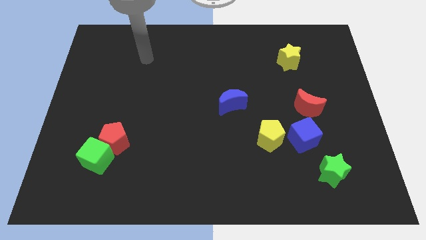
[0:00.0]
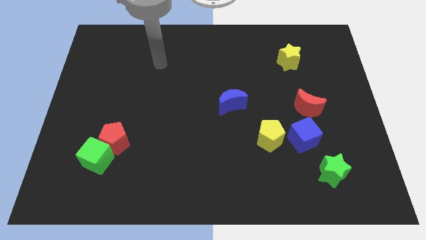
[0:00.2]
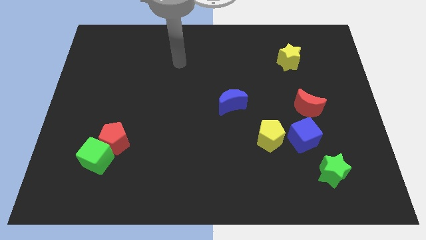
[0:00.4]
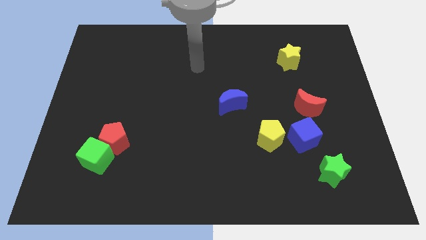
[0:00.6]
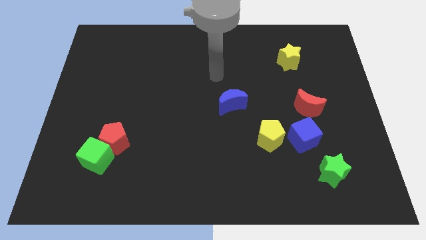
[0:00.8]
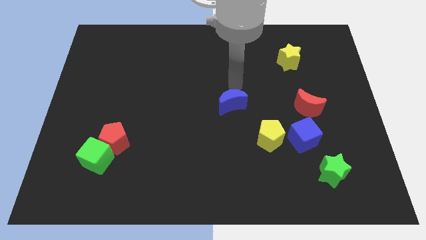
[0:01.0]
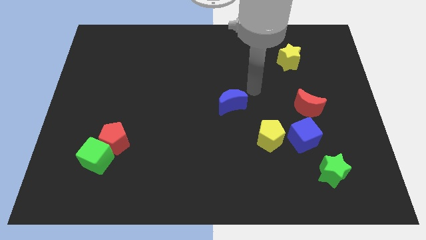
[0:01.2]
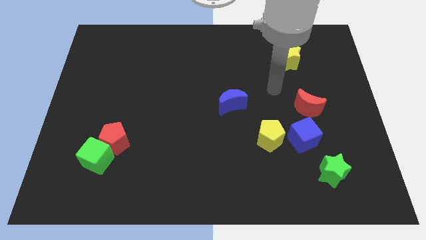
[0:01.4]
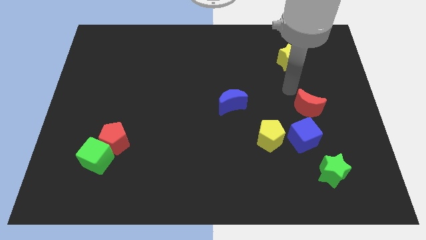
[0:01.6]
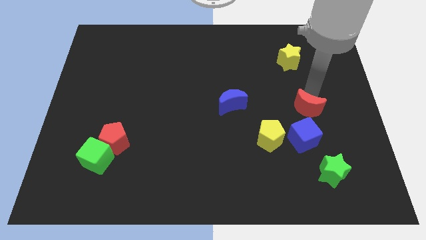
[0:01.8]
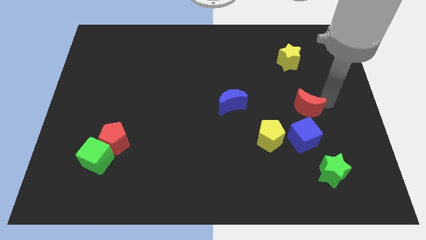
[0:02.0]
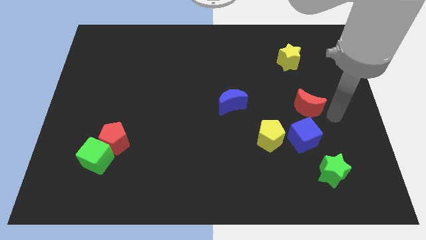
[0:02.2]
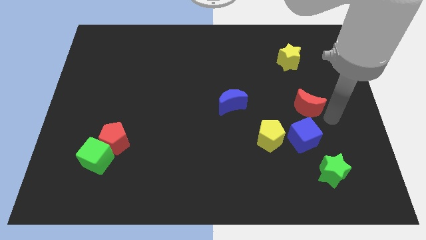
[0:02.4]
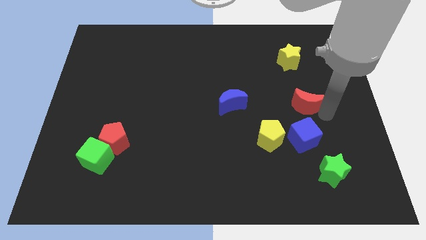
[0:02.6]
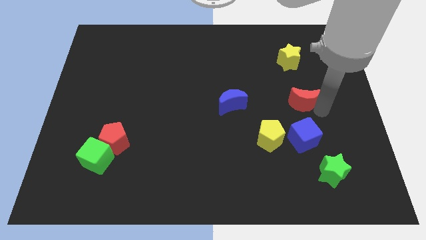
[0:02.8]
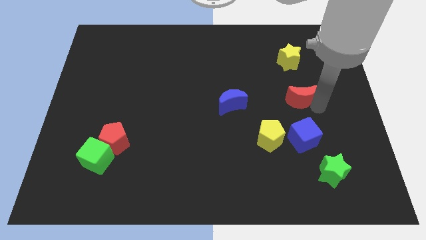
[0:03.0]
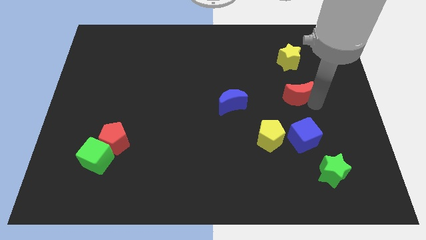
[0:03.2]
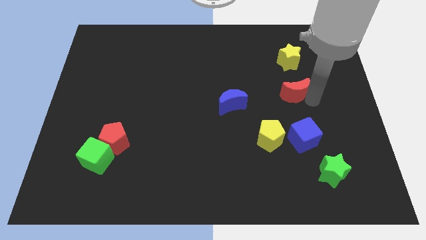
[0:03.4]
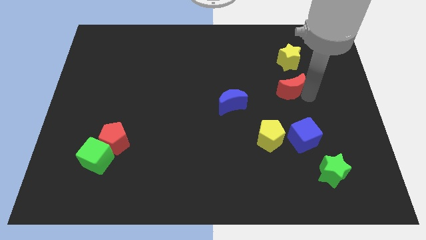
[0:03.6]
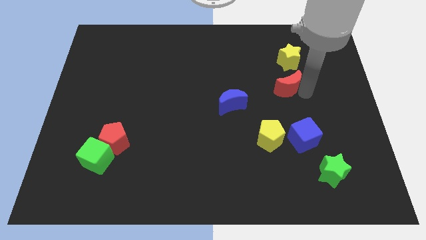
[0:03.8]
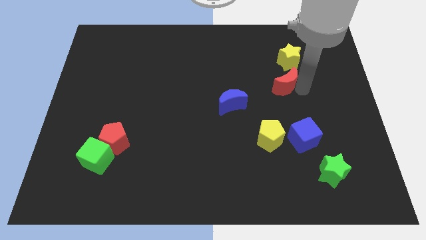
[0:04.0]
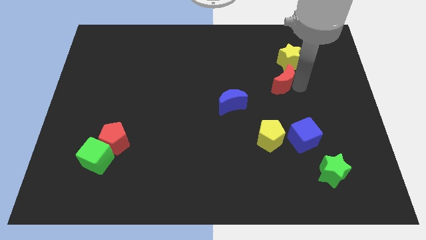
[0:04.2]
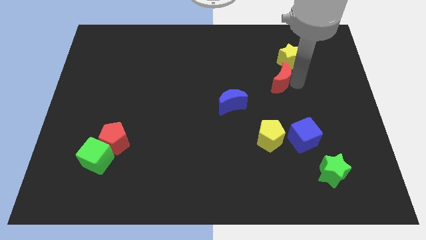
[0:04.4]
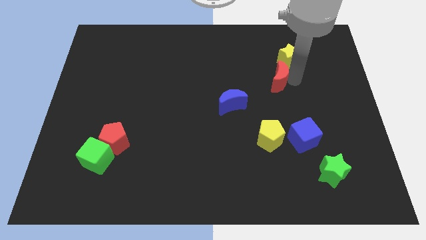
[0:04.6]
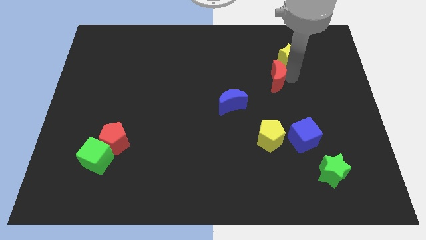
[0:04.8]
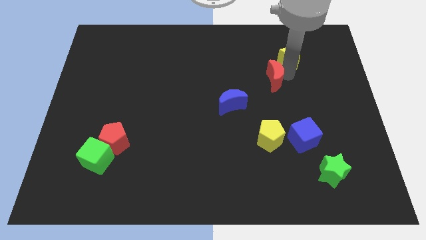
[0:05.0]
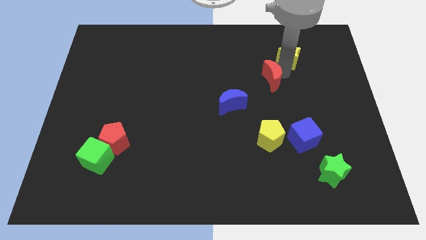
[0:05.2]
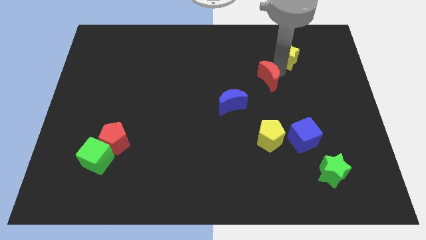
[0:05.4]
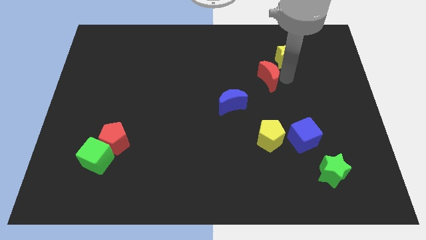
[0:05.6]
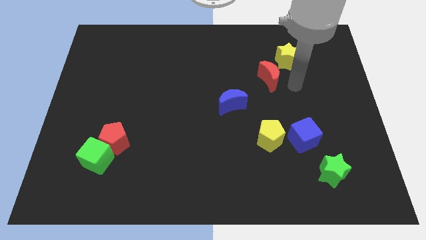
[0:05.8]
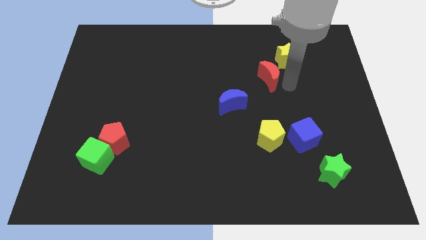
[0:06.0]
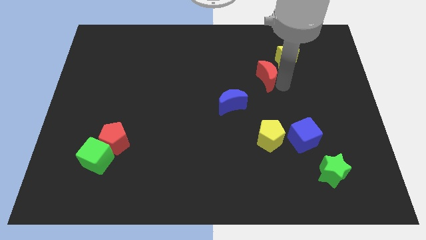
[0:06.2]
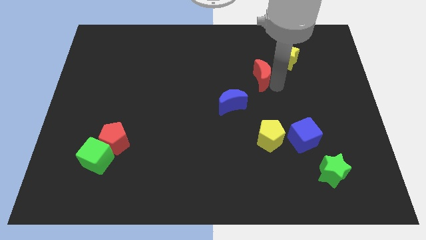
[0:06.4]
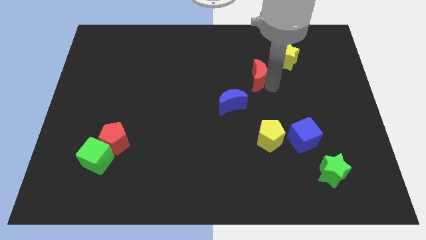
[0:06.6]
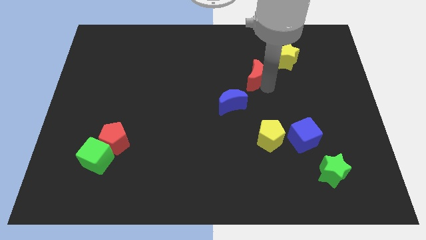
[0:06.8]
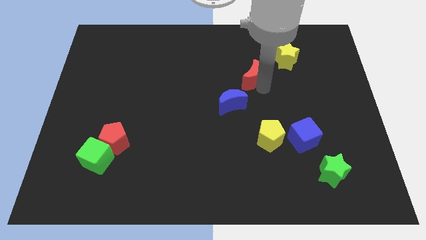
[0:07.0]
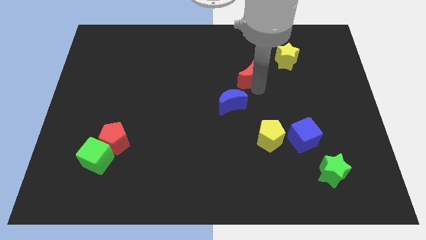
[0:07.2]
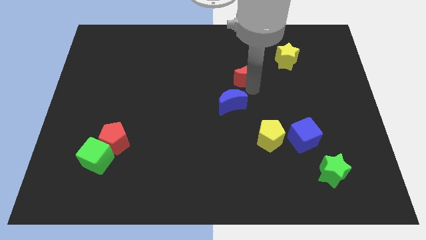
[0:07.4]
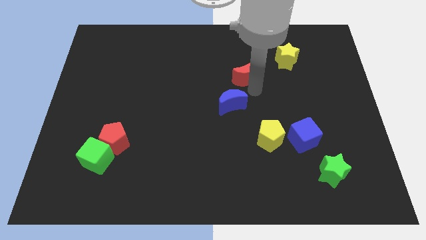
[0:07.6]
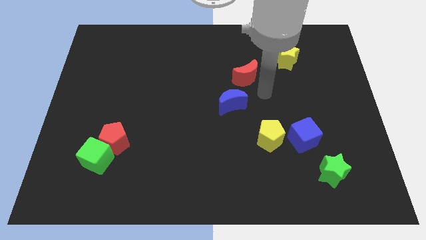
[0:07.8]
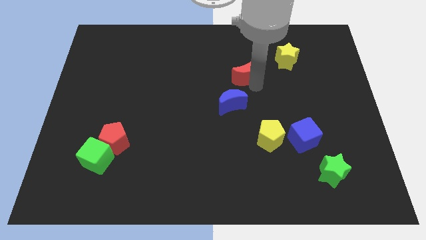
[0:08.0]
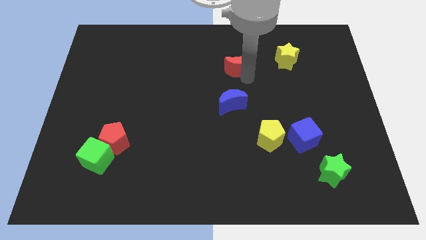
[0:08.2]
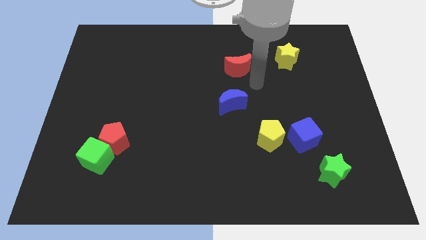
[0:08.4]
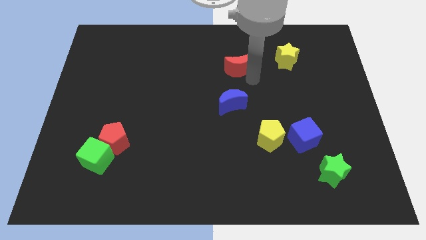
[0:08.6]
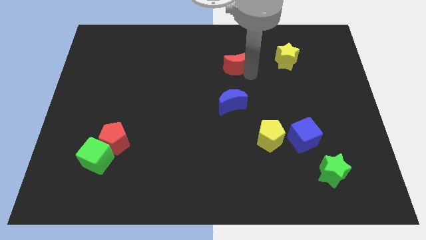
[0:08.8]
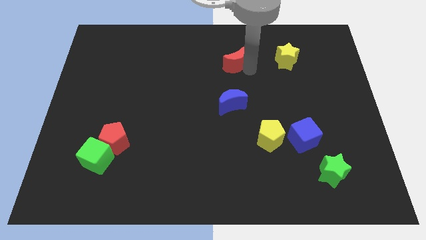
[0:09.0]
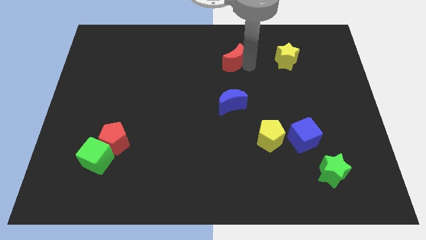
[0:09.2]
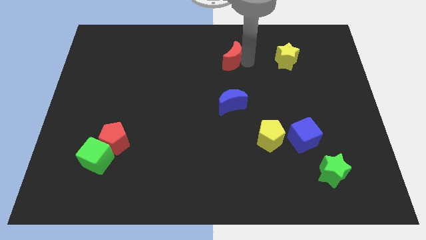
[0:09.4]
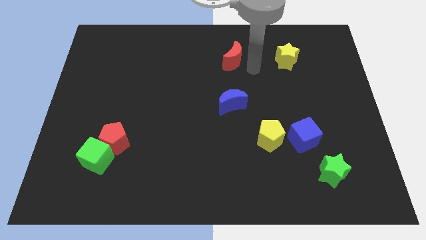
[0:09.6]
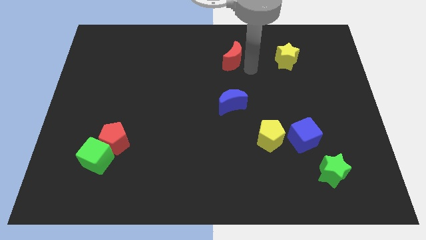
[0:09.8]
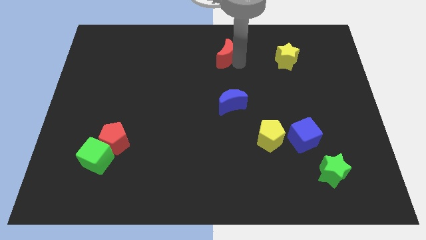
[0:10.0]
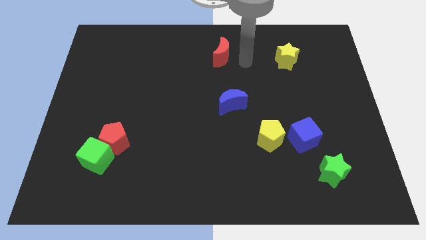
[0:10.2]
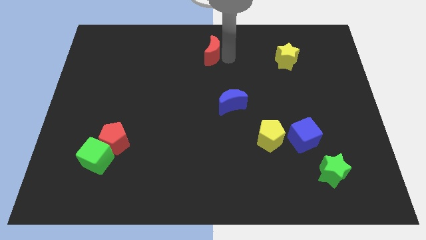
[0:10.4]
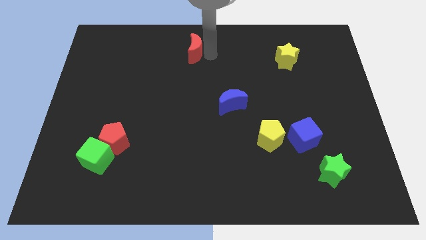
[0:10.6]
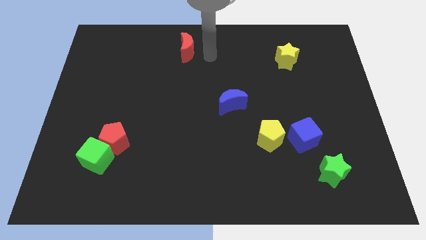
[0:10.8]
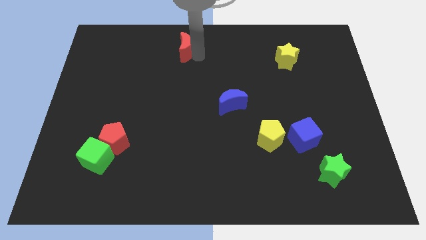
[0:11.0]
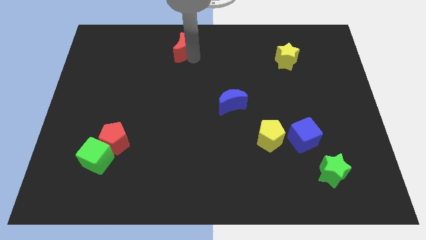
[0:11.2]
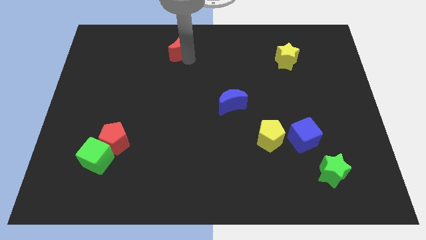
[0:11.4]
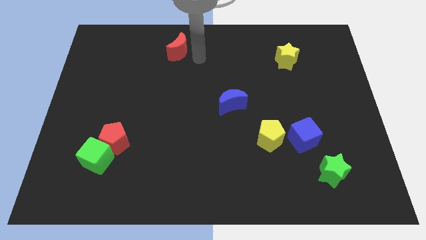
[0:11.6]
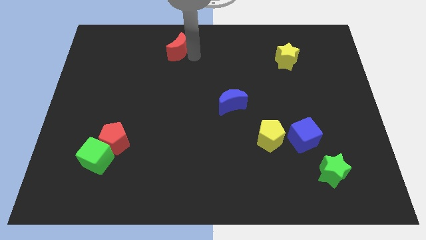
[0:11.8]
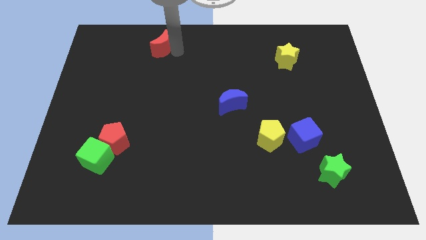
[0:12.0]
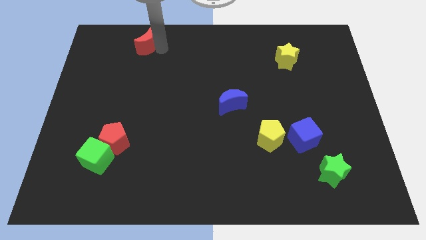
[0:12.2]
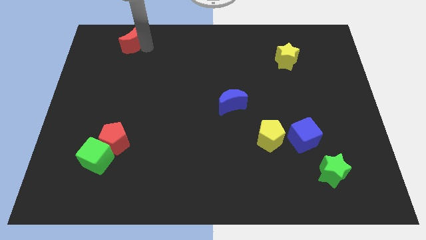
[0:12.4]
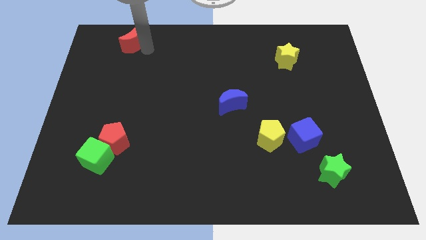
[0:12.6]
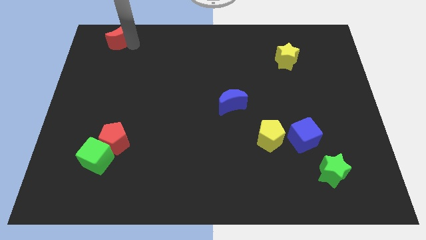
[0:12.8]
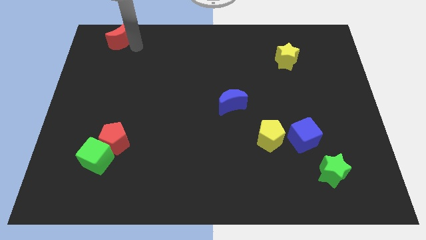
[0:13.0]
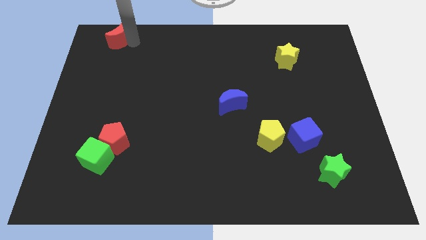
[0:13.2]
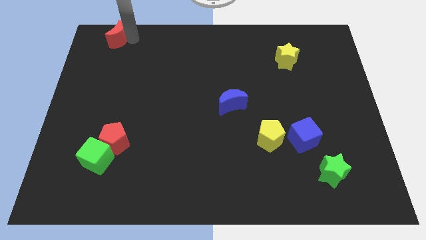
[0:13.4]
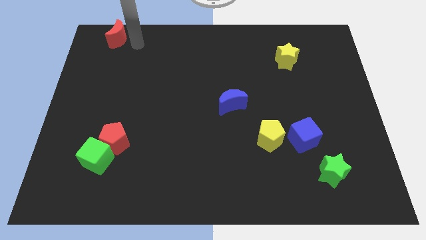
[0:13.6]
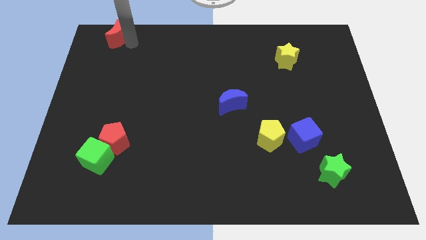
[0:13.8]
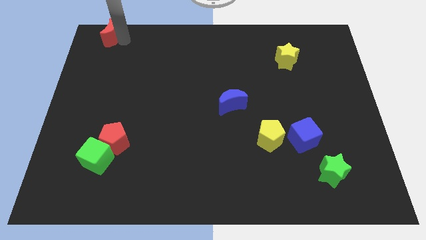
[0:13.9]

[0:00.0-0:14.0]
slide the red moon to the top left corner
